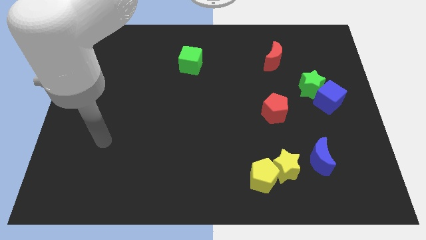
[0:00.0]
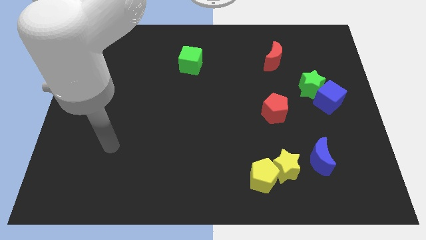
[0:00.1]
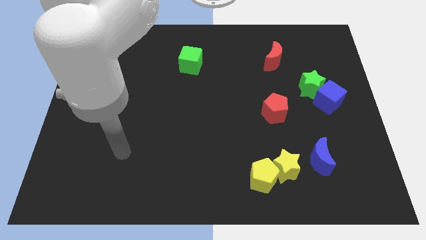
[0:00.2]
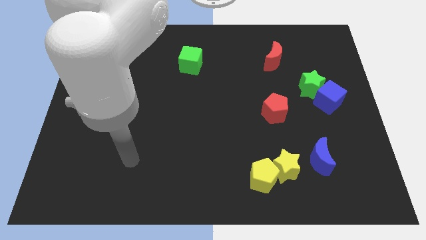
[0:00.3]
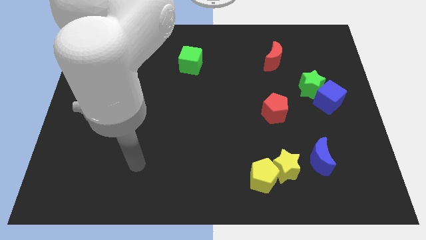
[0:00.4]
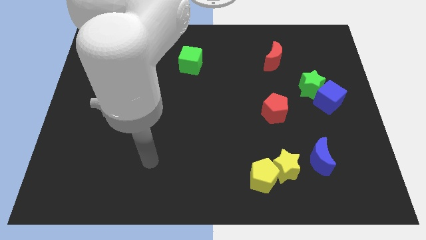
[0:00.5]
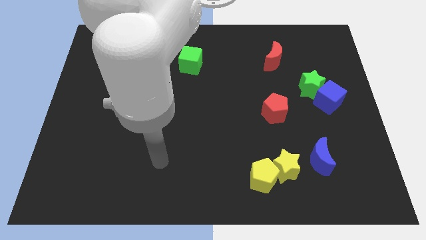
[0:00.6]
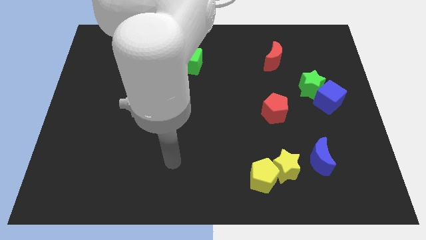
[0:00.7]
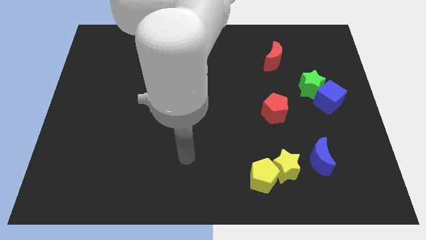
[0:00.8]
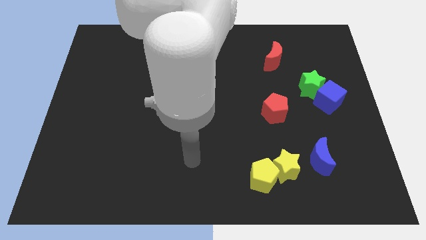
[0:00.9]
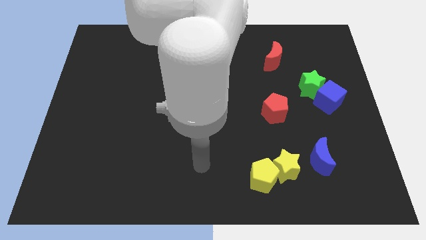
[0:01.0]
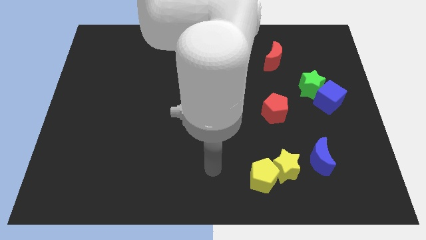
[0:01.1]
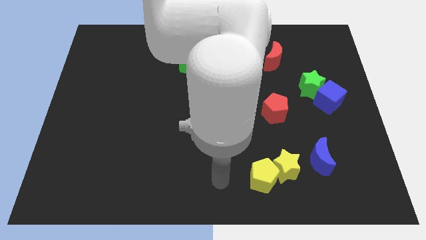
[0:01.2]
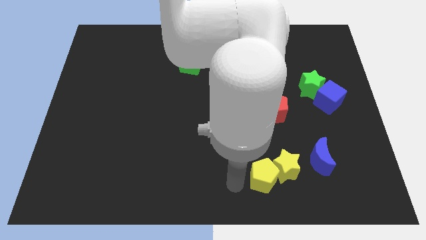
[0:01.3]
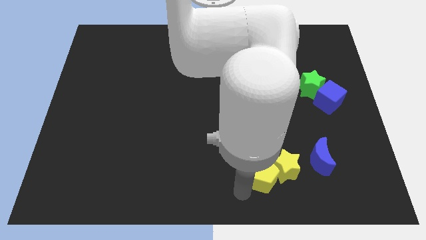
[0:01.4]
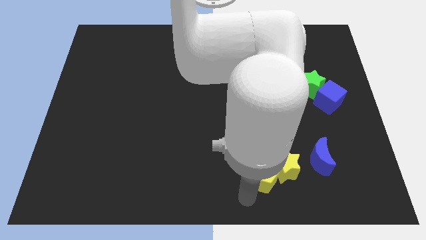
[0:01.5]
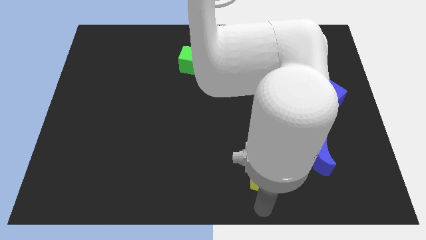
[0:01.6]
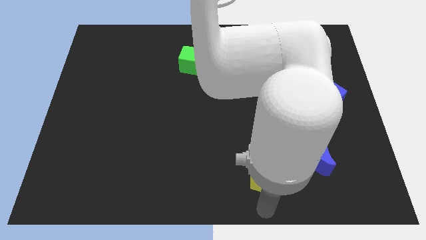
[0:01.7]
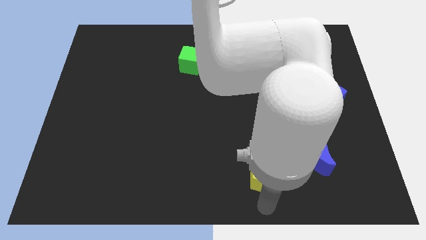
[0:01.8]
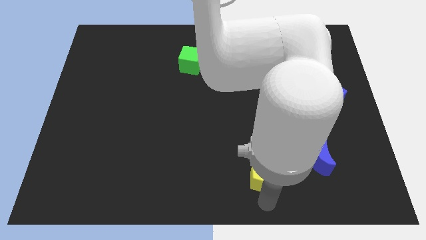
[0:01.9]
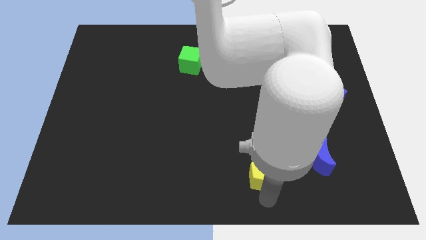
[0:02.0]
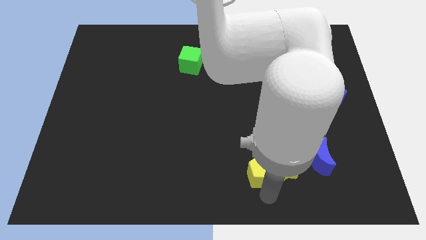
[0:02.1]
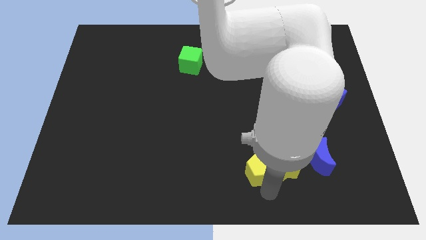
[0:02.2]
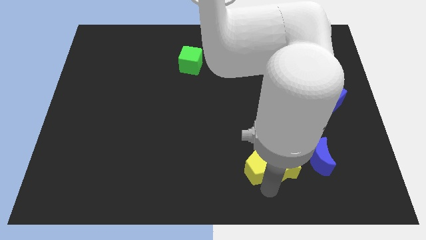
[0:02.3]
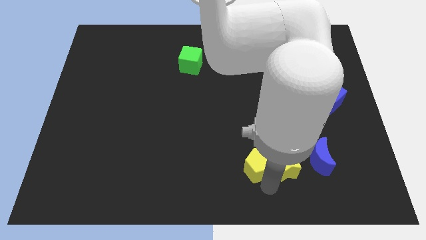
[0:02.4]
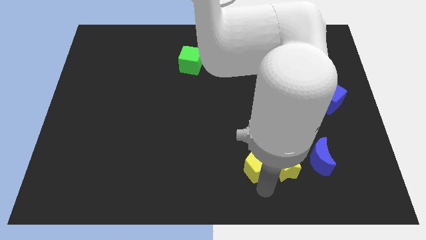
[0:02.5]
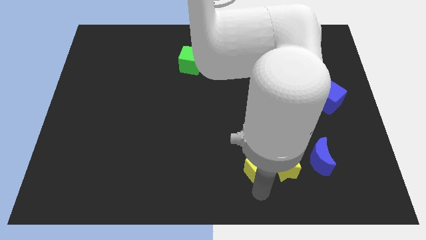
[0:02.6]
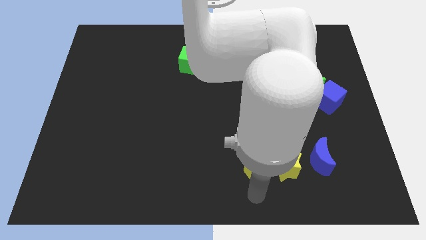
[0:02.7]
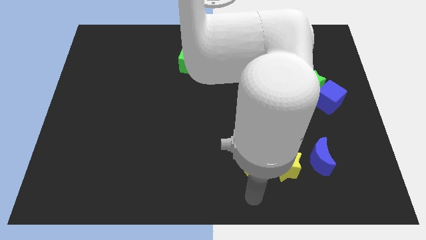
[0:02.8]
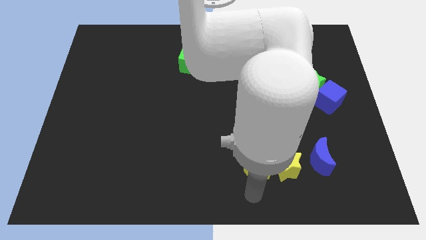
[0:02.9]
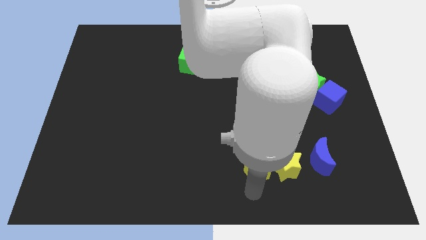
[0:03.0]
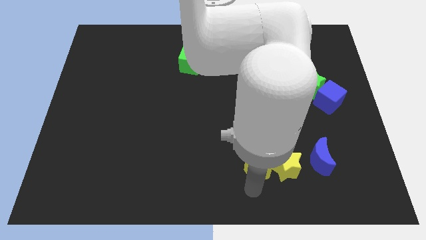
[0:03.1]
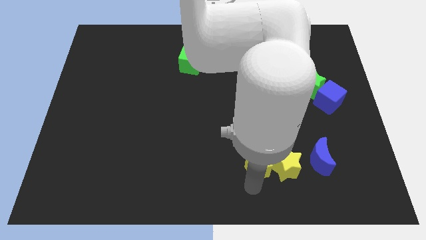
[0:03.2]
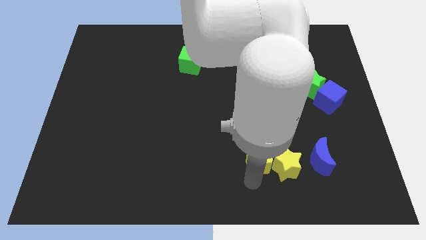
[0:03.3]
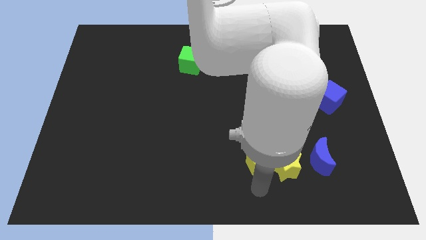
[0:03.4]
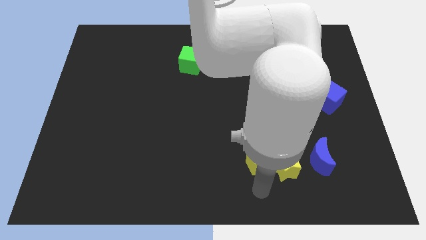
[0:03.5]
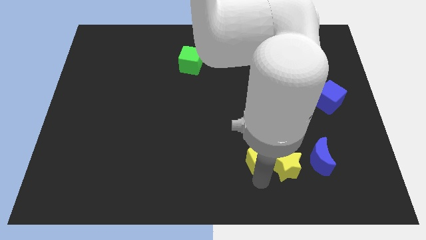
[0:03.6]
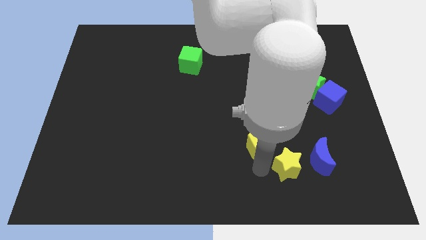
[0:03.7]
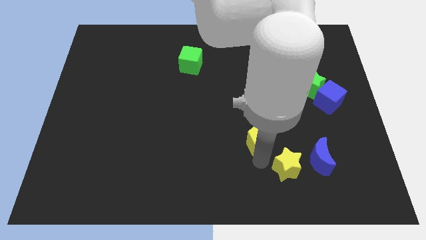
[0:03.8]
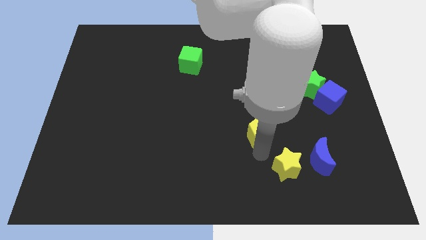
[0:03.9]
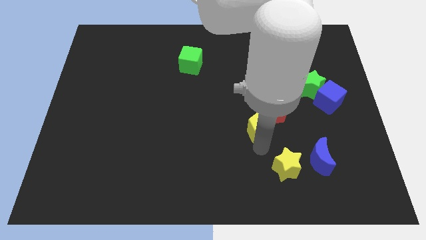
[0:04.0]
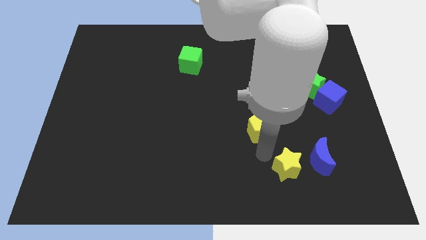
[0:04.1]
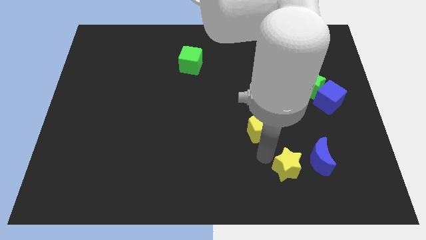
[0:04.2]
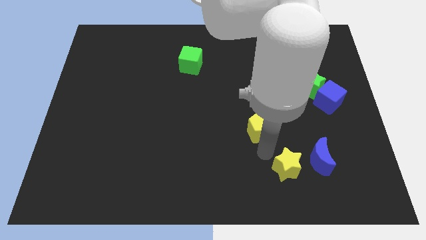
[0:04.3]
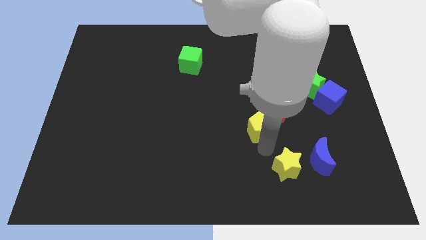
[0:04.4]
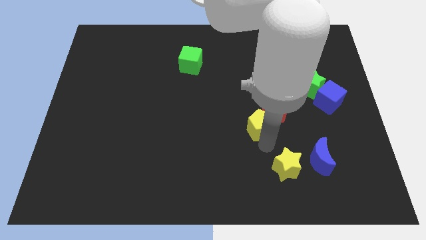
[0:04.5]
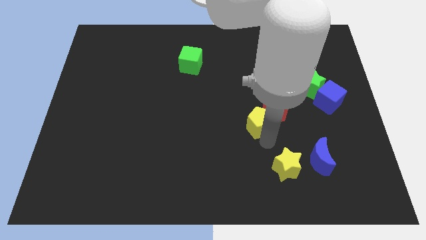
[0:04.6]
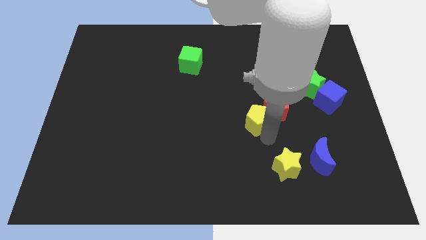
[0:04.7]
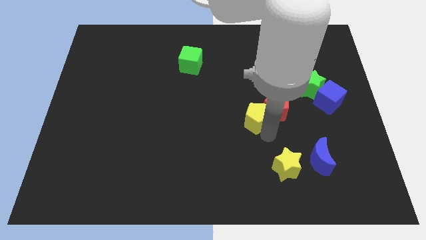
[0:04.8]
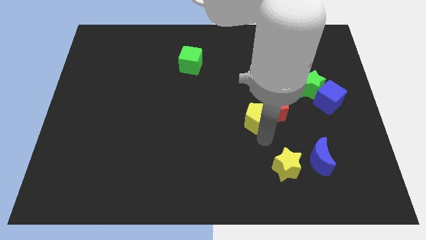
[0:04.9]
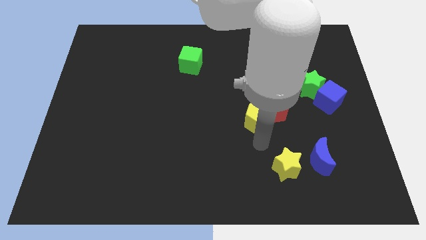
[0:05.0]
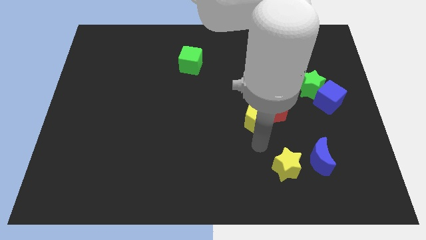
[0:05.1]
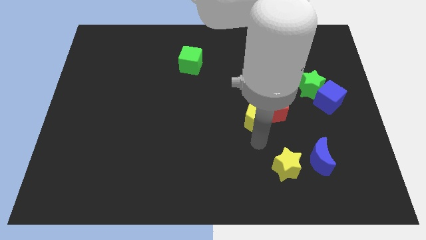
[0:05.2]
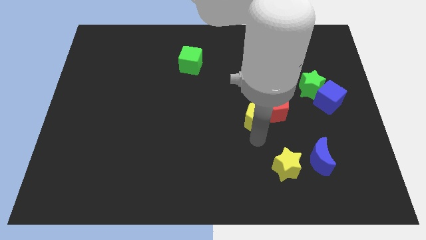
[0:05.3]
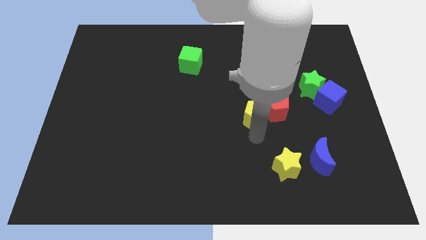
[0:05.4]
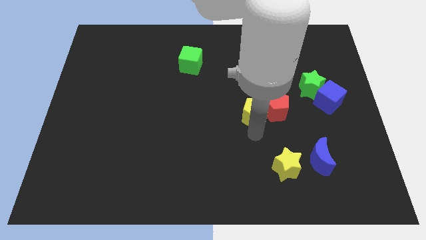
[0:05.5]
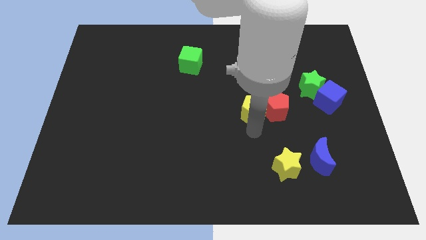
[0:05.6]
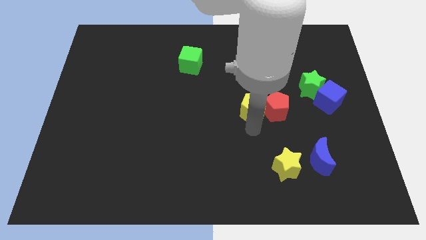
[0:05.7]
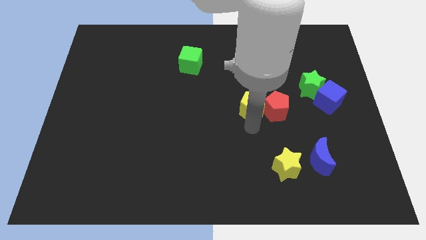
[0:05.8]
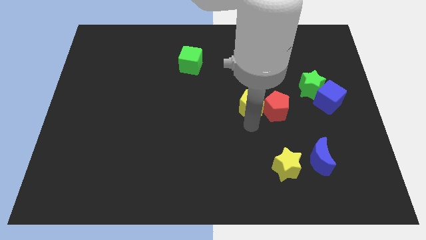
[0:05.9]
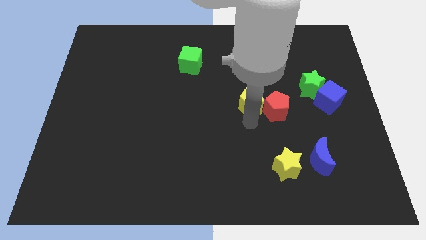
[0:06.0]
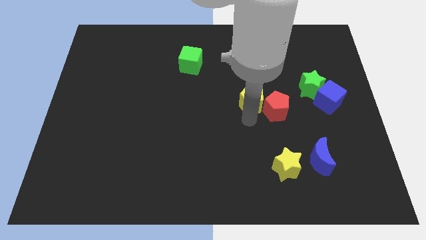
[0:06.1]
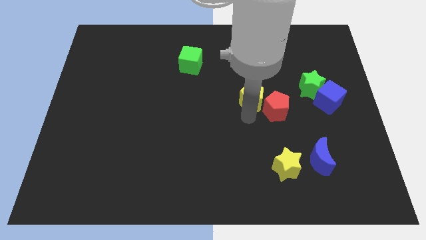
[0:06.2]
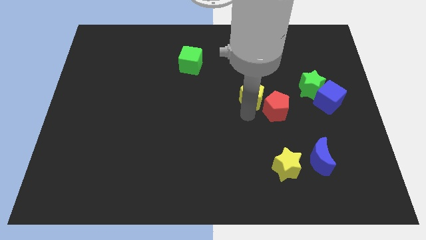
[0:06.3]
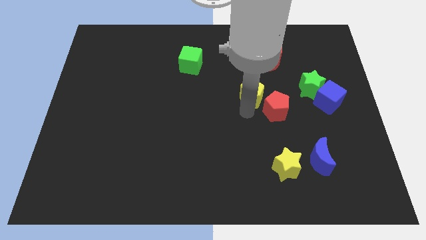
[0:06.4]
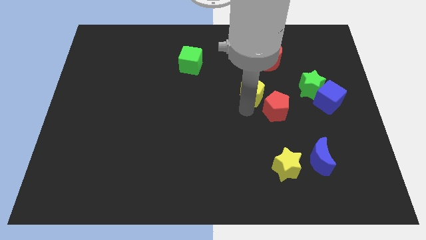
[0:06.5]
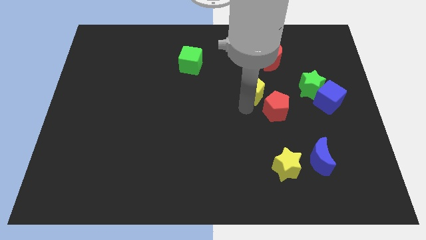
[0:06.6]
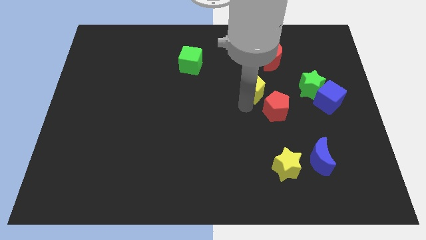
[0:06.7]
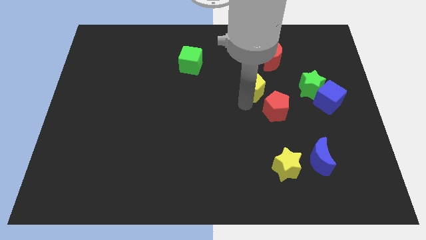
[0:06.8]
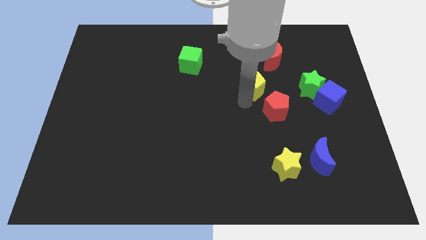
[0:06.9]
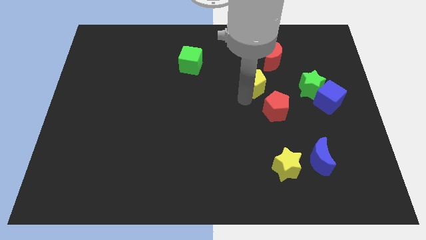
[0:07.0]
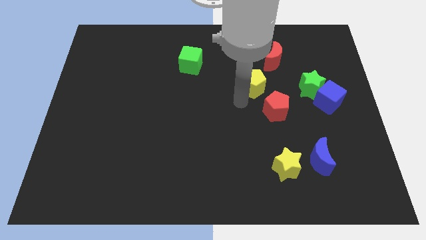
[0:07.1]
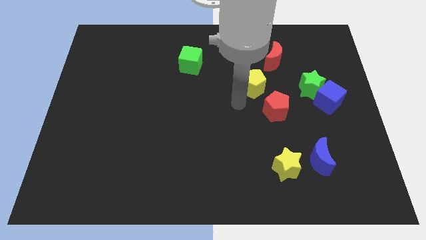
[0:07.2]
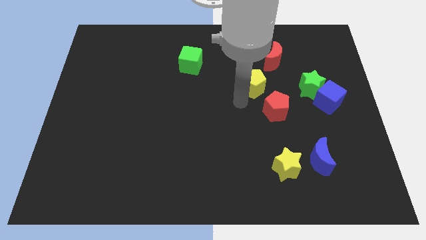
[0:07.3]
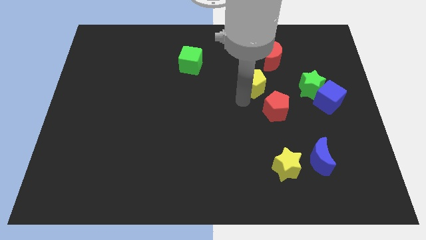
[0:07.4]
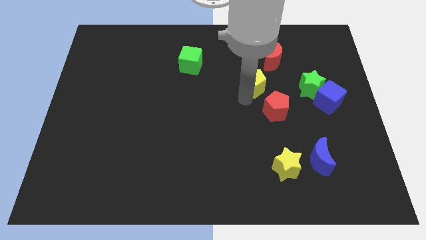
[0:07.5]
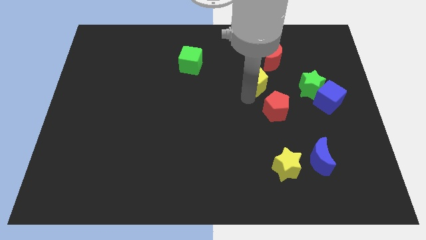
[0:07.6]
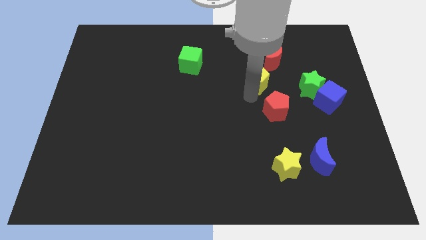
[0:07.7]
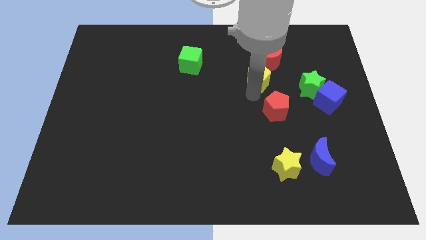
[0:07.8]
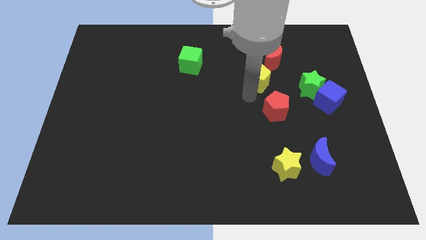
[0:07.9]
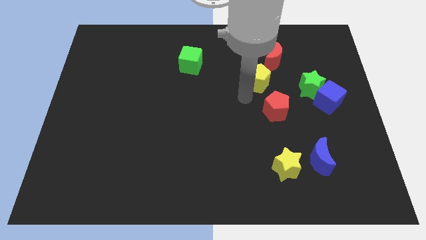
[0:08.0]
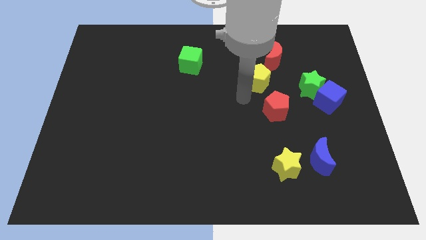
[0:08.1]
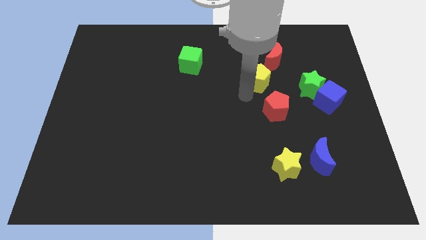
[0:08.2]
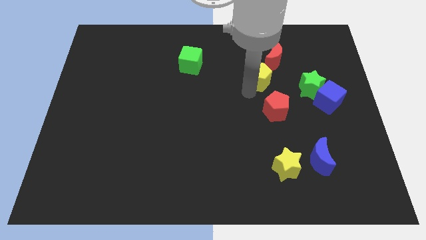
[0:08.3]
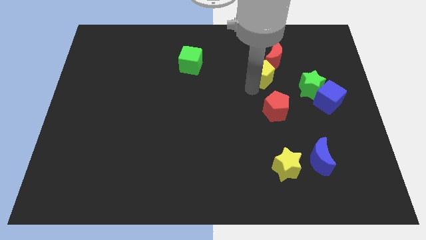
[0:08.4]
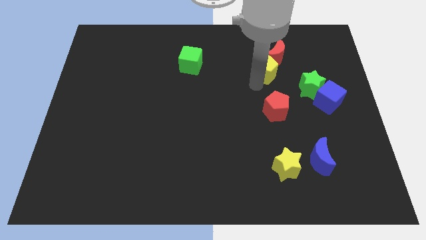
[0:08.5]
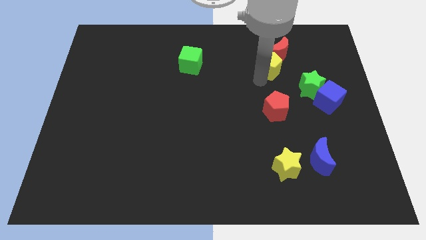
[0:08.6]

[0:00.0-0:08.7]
push the yellow pentagon next to the red moon
